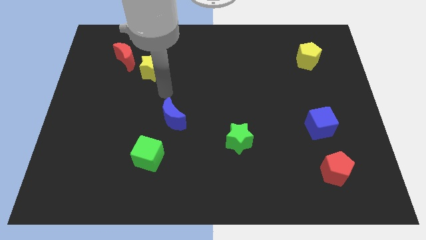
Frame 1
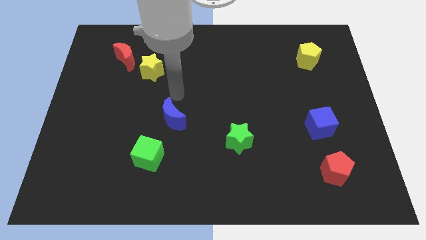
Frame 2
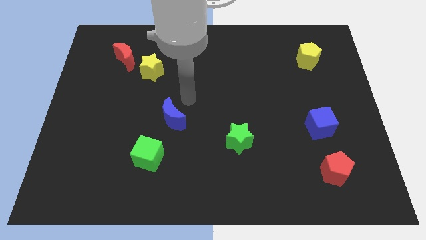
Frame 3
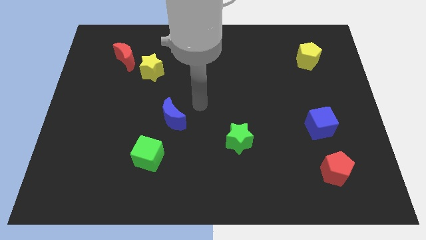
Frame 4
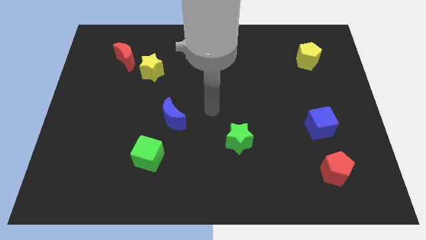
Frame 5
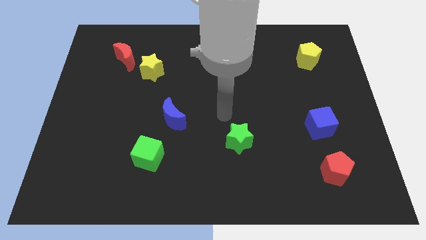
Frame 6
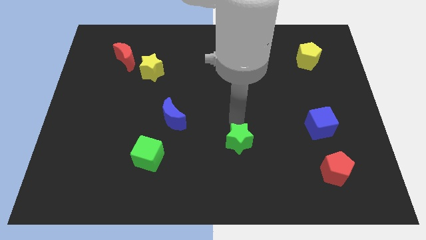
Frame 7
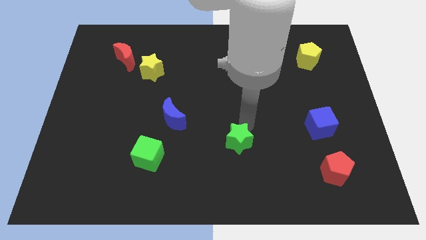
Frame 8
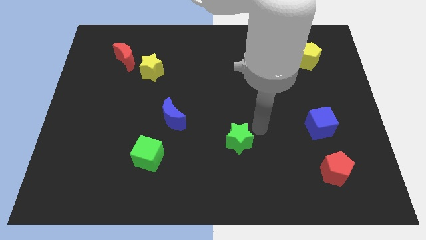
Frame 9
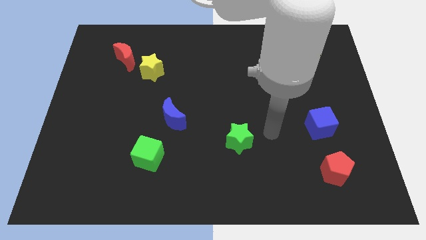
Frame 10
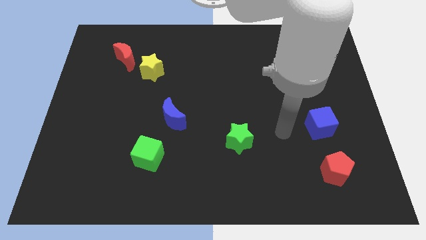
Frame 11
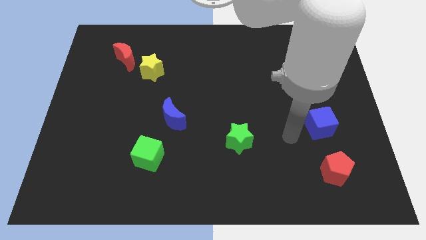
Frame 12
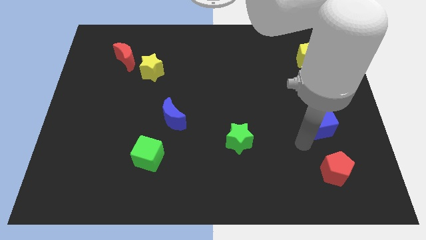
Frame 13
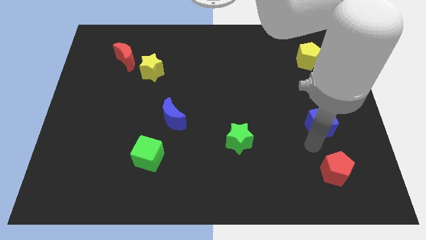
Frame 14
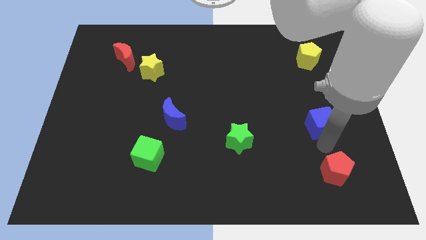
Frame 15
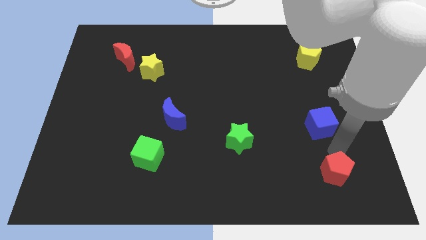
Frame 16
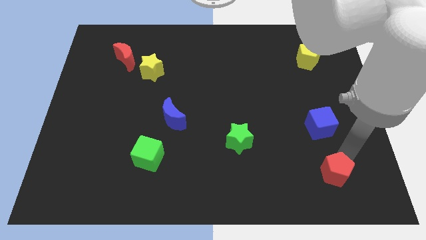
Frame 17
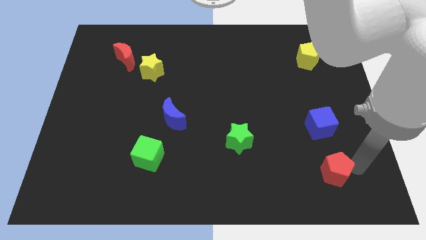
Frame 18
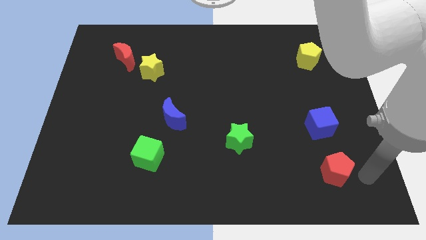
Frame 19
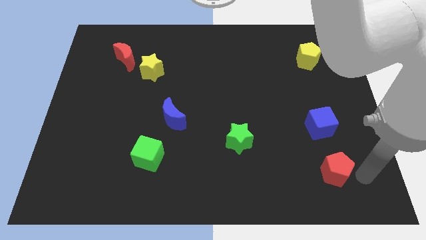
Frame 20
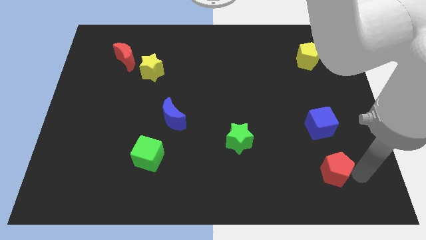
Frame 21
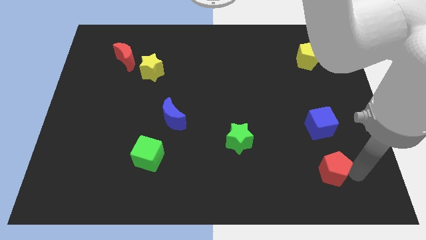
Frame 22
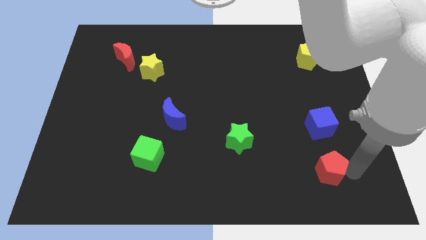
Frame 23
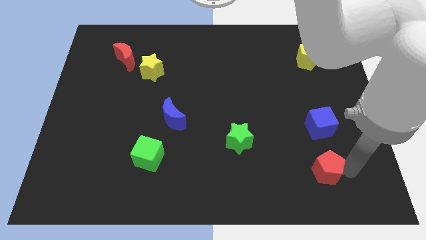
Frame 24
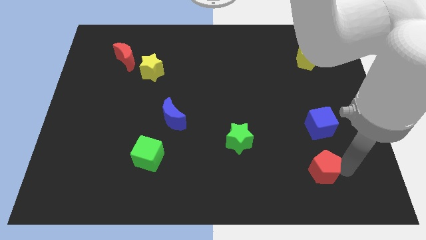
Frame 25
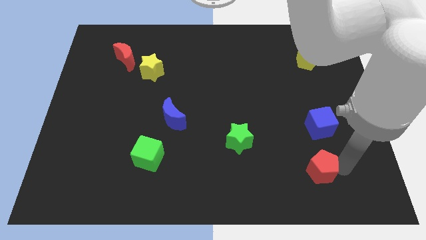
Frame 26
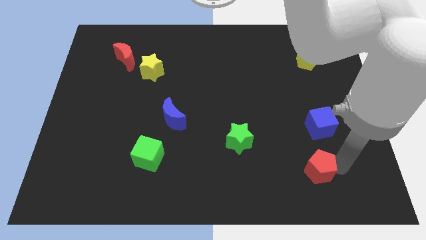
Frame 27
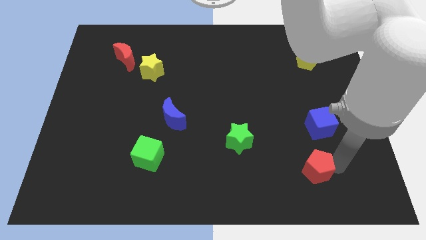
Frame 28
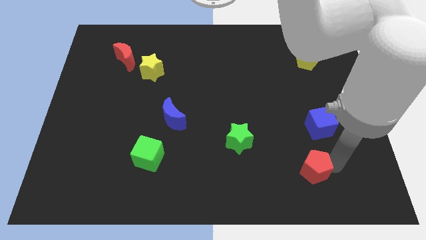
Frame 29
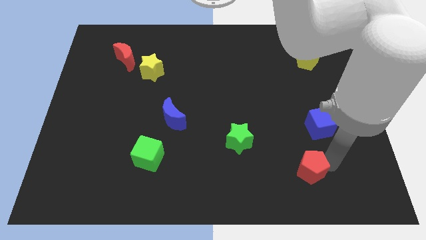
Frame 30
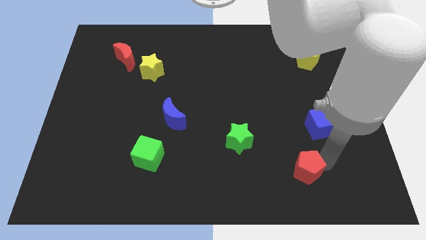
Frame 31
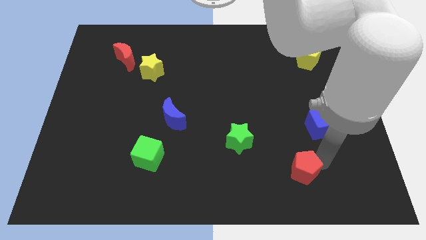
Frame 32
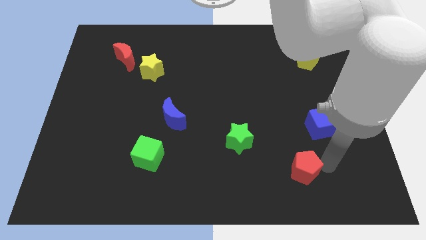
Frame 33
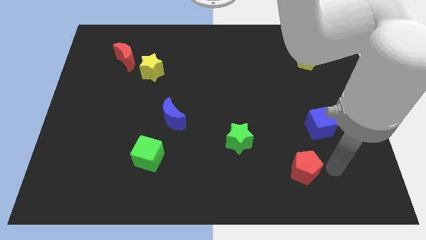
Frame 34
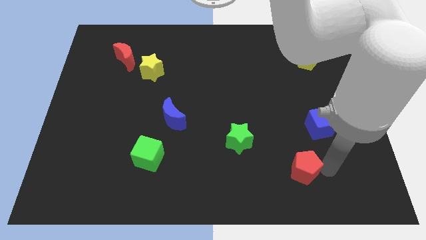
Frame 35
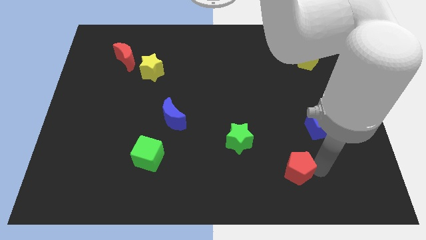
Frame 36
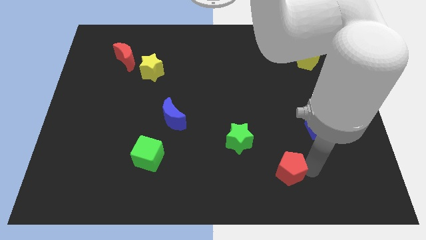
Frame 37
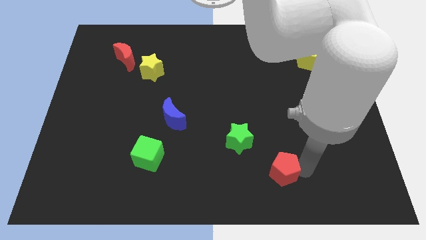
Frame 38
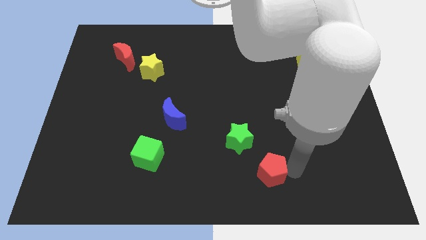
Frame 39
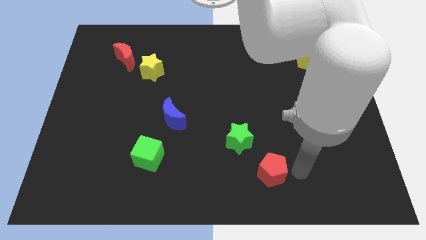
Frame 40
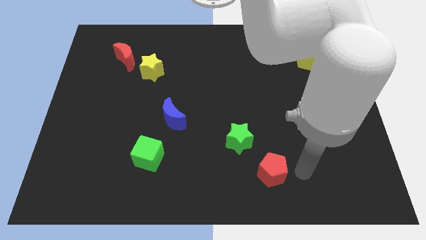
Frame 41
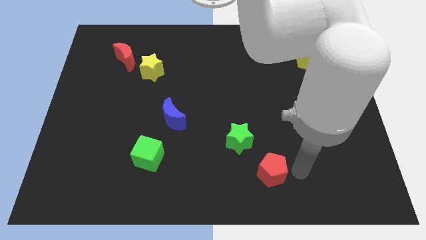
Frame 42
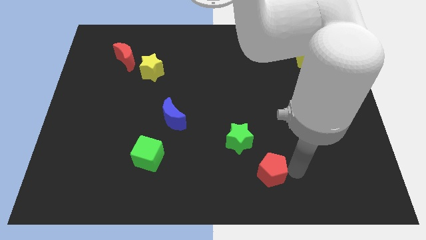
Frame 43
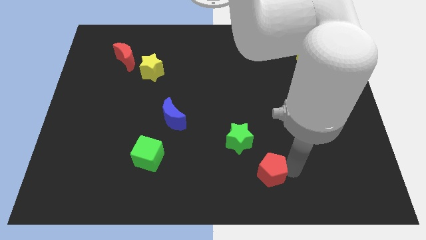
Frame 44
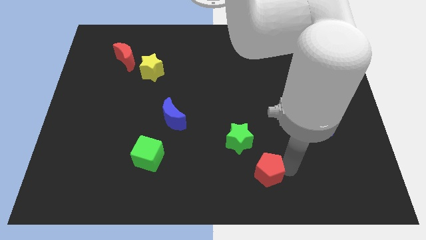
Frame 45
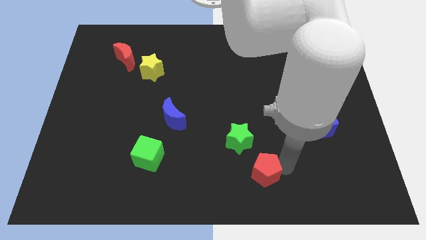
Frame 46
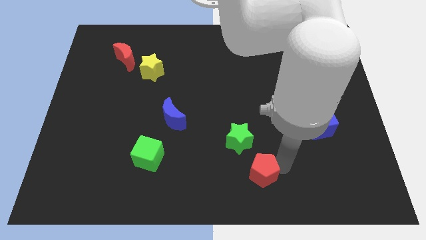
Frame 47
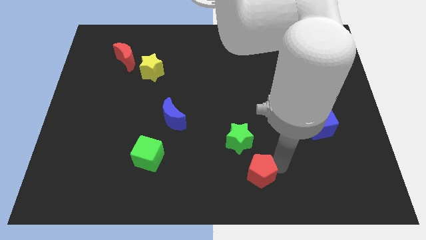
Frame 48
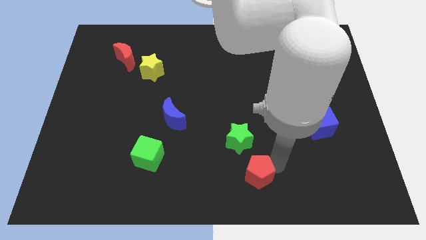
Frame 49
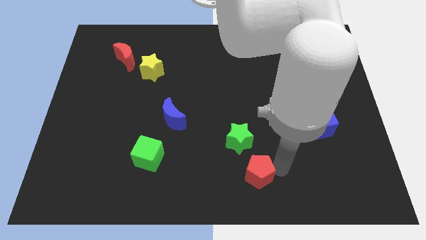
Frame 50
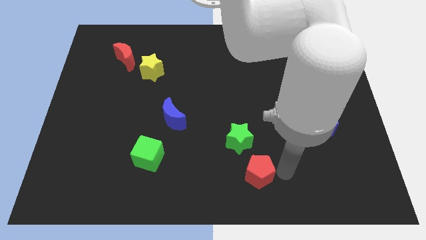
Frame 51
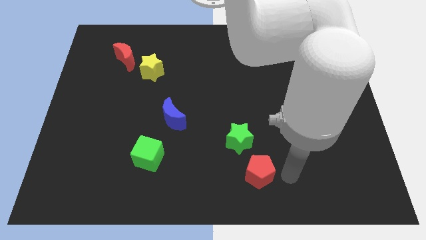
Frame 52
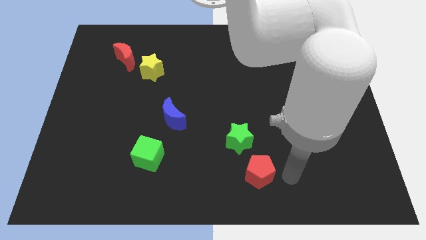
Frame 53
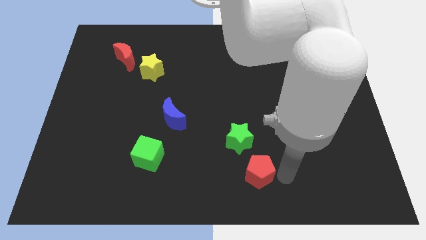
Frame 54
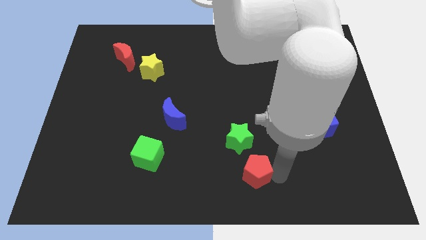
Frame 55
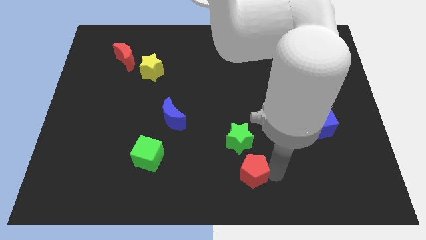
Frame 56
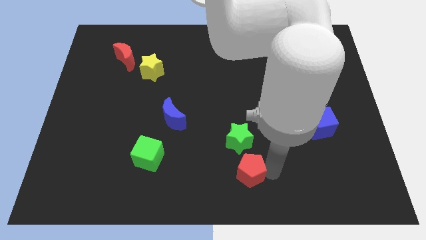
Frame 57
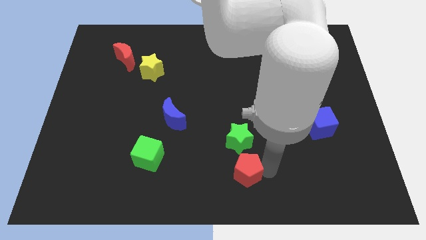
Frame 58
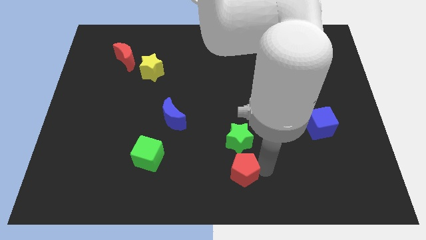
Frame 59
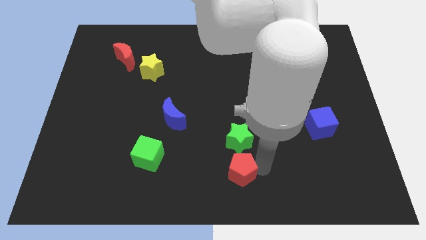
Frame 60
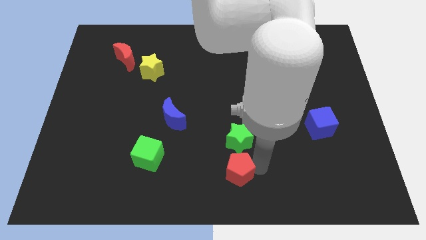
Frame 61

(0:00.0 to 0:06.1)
push the red pentagon to the left

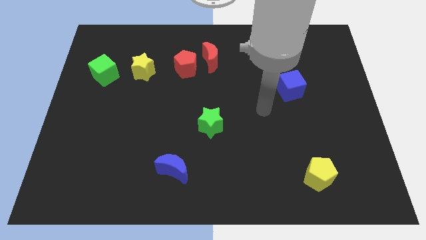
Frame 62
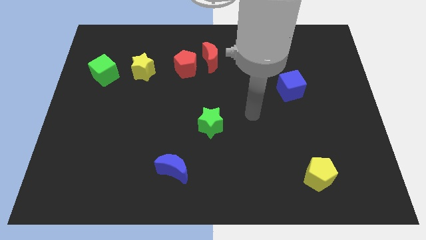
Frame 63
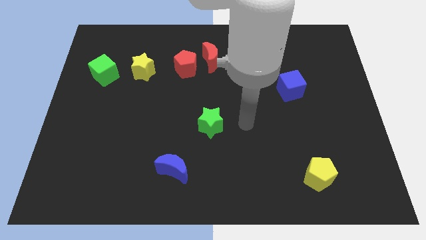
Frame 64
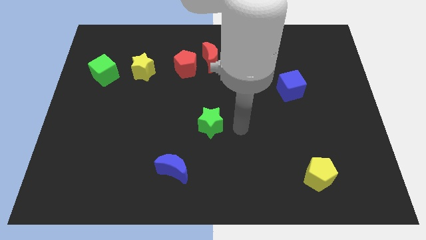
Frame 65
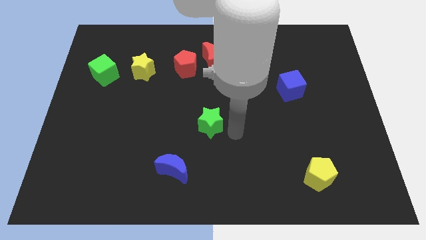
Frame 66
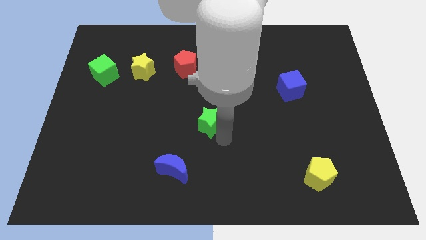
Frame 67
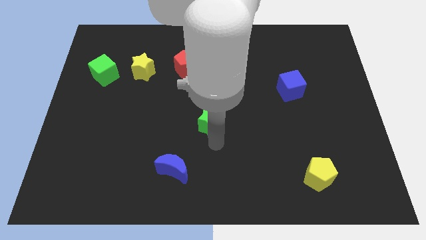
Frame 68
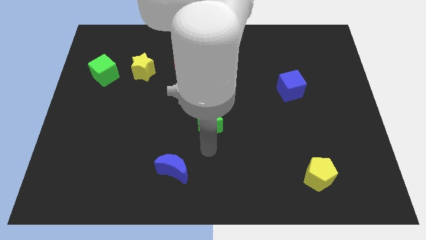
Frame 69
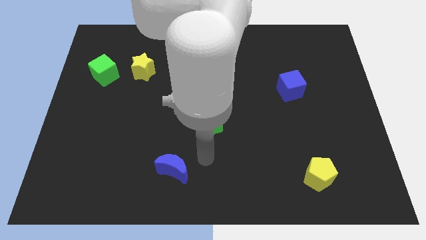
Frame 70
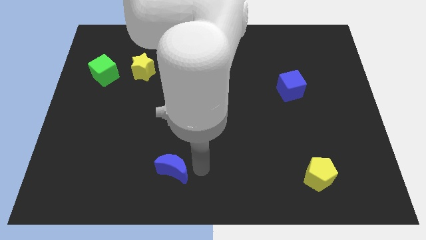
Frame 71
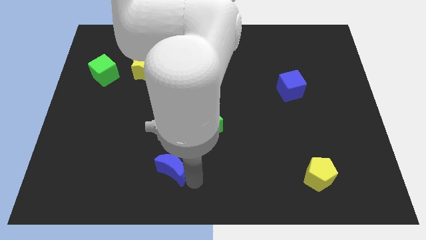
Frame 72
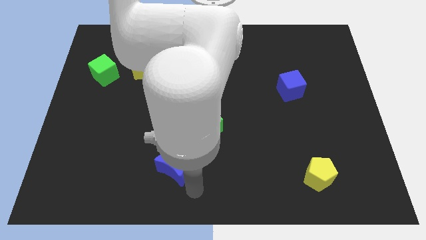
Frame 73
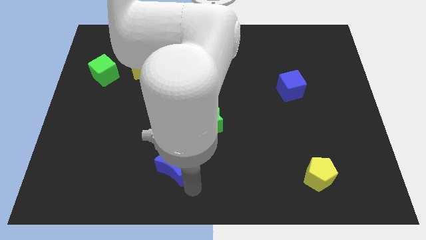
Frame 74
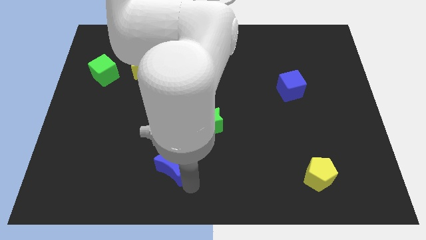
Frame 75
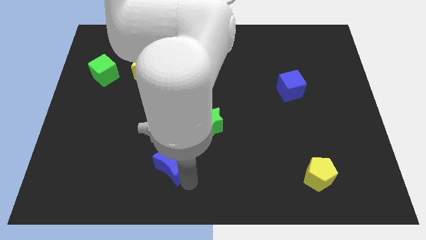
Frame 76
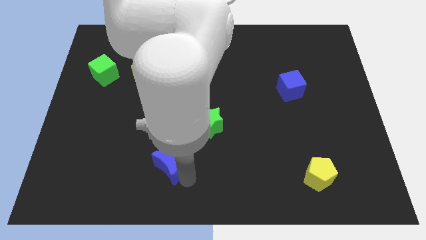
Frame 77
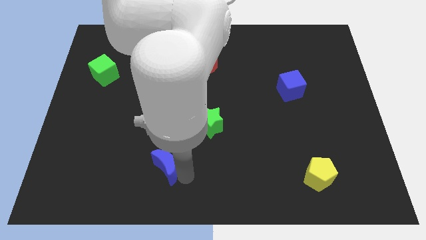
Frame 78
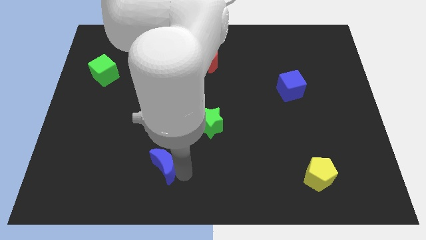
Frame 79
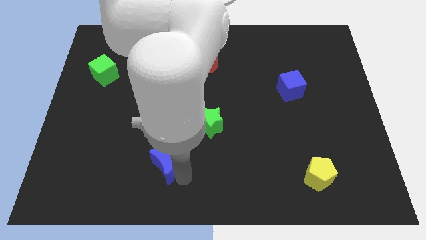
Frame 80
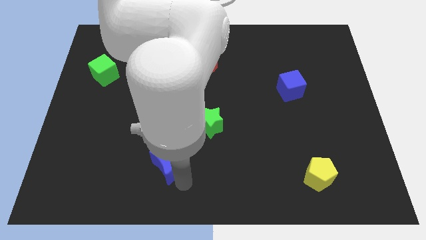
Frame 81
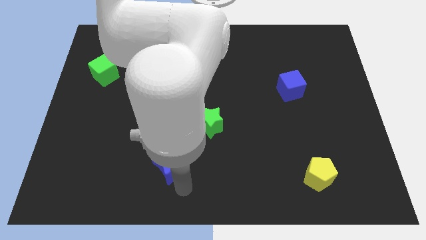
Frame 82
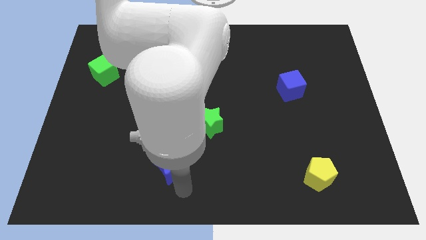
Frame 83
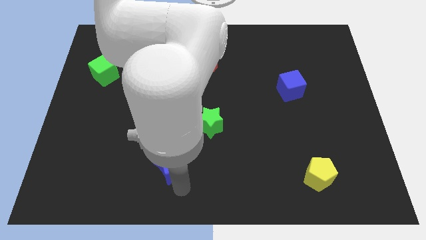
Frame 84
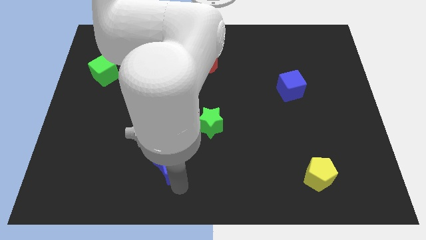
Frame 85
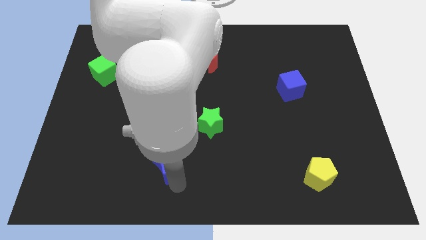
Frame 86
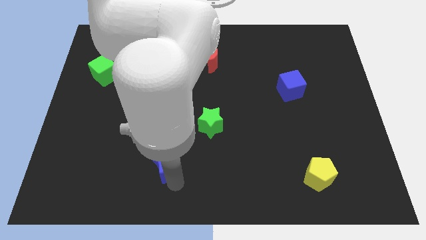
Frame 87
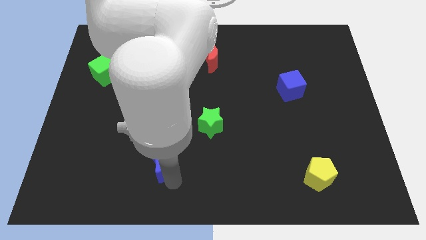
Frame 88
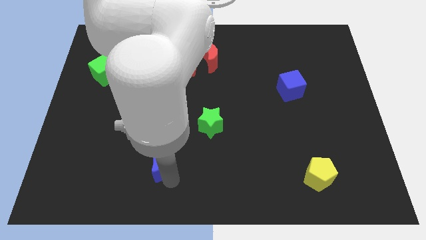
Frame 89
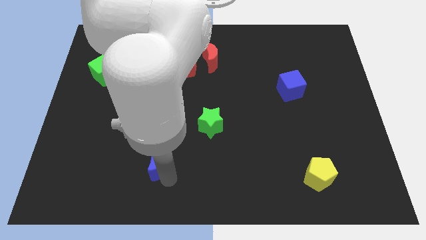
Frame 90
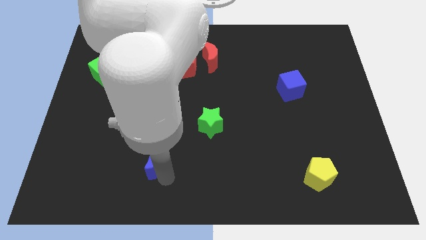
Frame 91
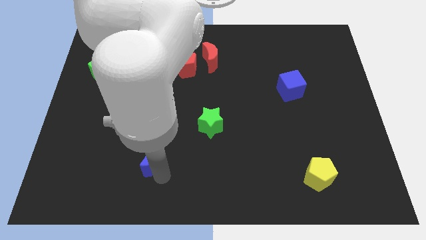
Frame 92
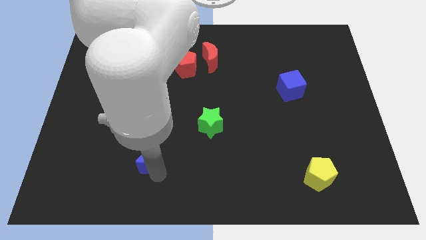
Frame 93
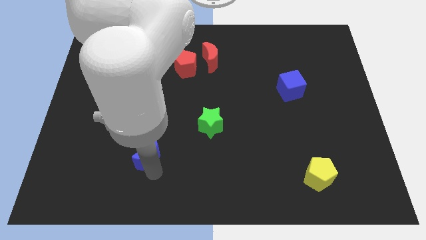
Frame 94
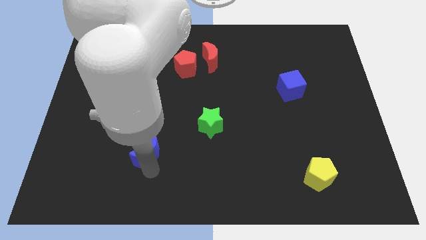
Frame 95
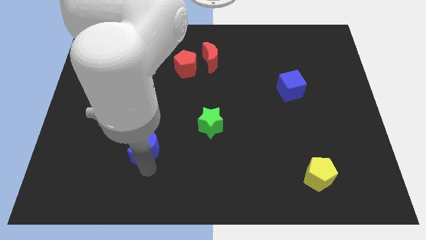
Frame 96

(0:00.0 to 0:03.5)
slide the blue moon a bit diagonally up and to the left
